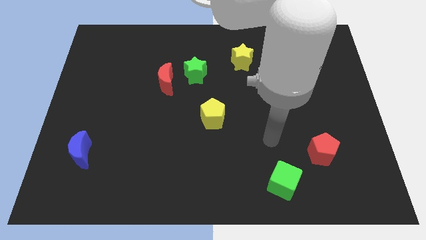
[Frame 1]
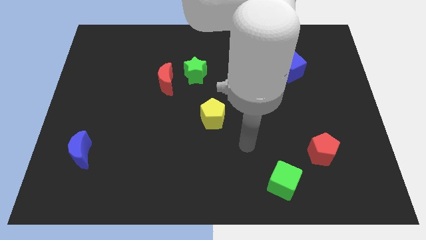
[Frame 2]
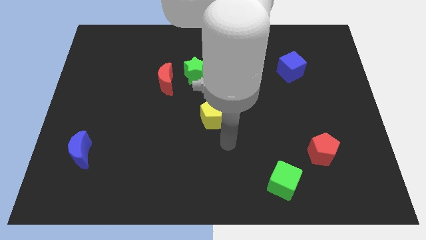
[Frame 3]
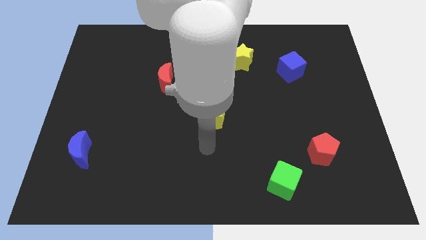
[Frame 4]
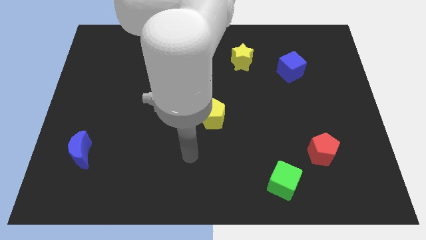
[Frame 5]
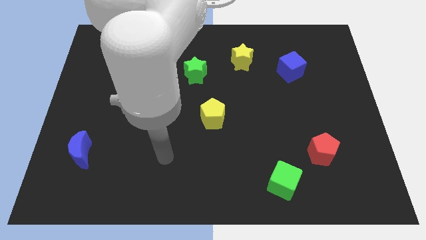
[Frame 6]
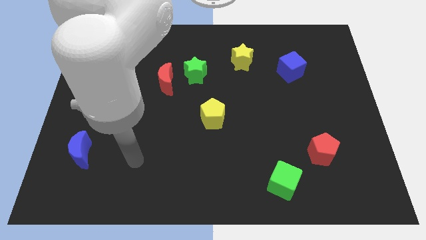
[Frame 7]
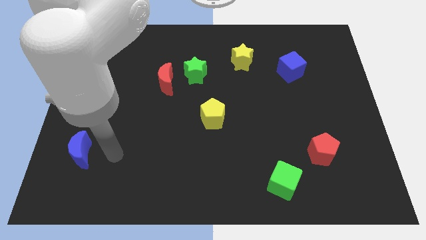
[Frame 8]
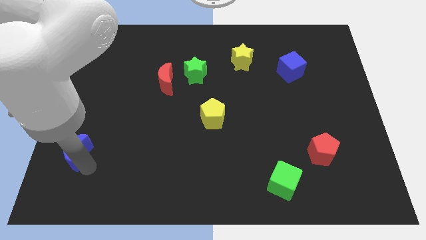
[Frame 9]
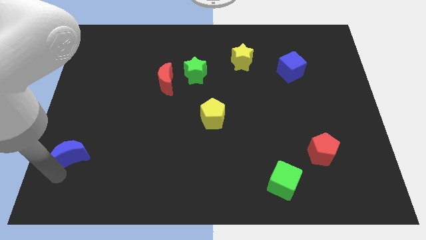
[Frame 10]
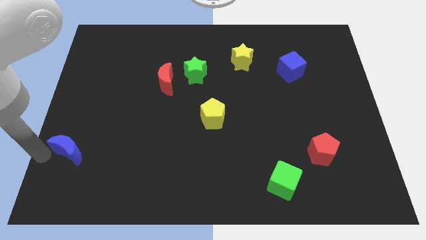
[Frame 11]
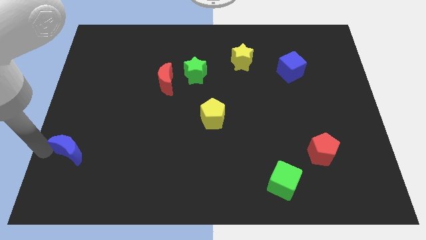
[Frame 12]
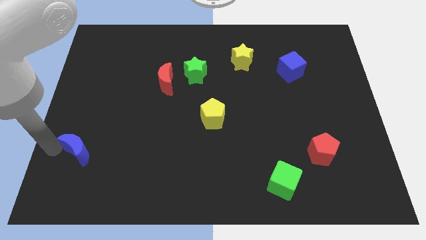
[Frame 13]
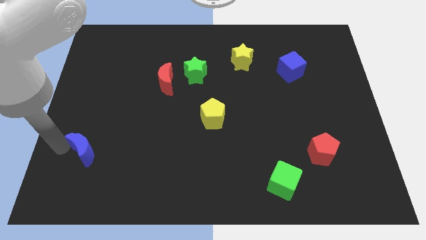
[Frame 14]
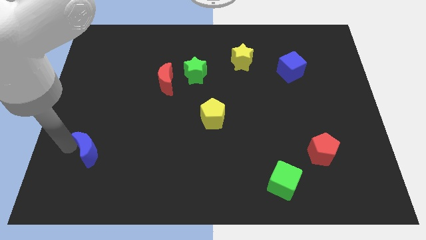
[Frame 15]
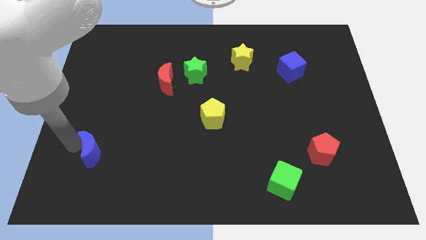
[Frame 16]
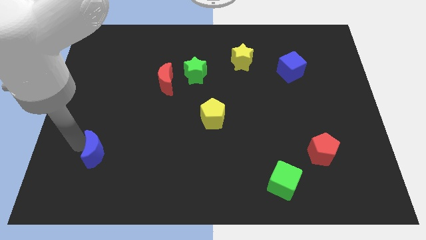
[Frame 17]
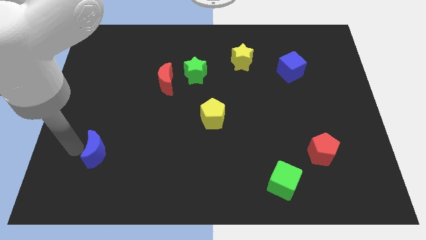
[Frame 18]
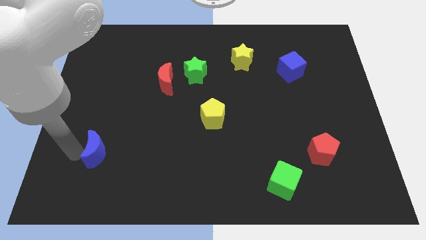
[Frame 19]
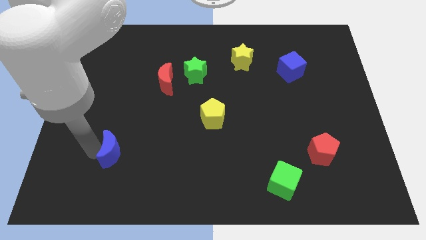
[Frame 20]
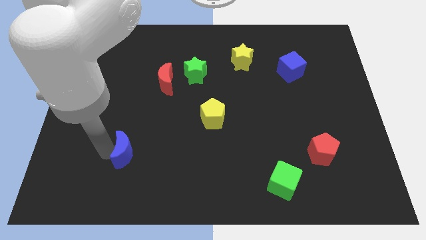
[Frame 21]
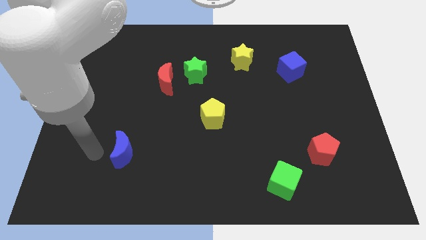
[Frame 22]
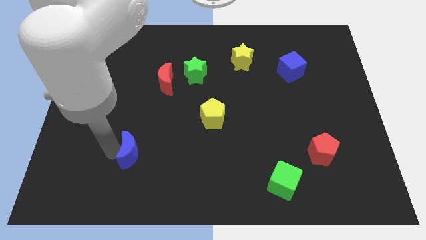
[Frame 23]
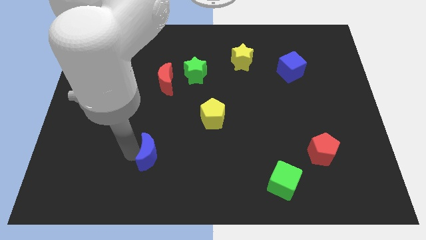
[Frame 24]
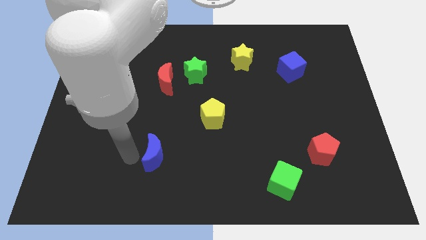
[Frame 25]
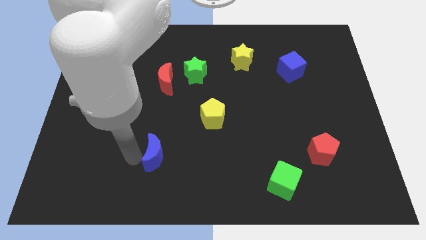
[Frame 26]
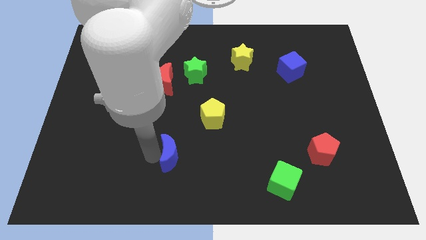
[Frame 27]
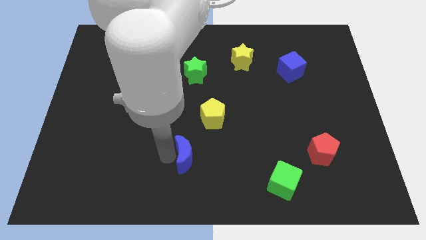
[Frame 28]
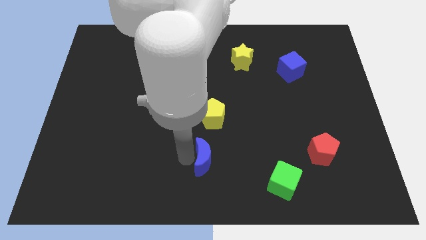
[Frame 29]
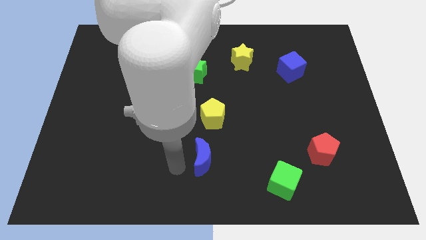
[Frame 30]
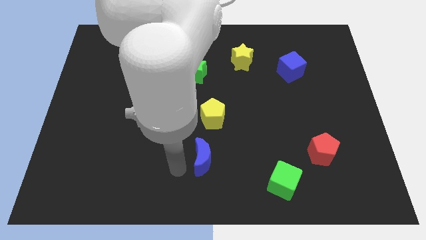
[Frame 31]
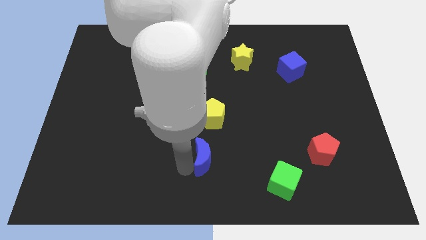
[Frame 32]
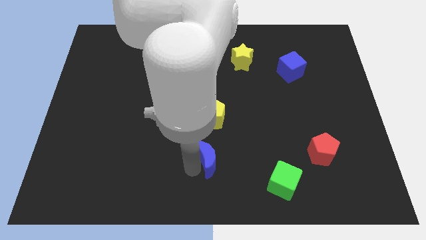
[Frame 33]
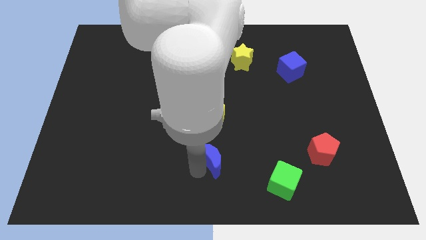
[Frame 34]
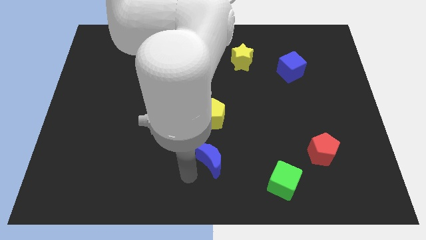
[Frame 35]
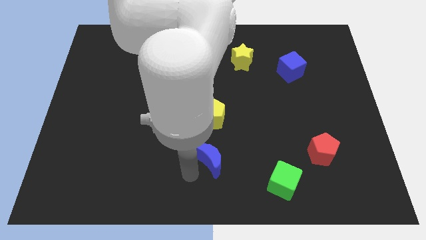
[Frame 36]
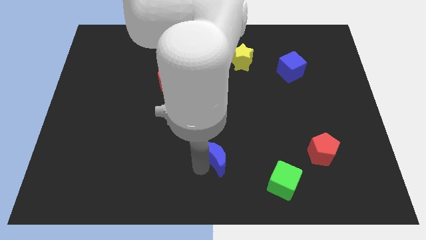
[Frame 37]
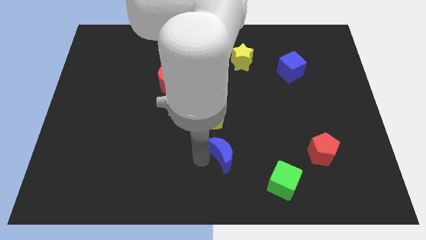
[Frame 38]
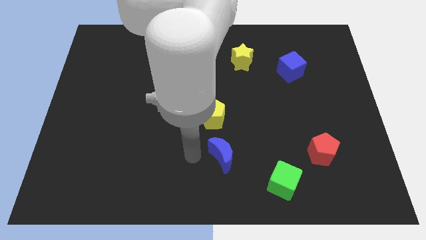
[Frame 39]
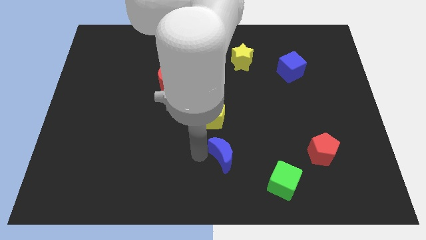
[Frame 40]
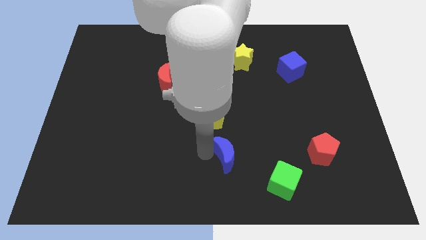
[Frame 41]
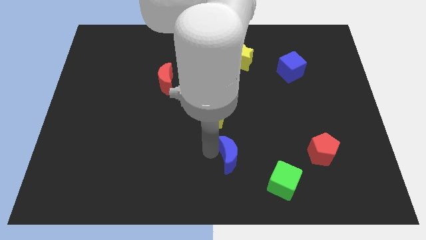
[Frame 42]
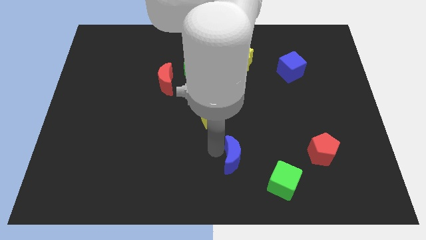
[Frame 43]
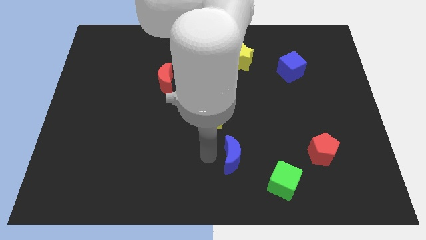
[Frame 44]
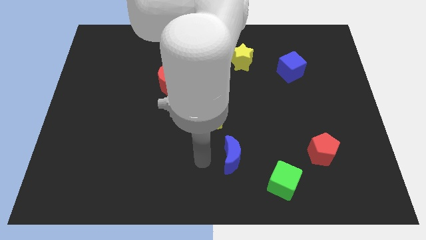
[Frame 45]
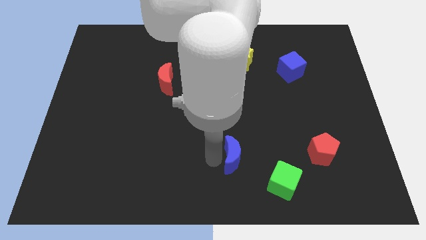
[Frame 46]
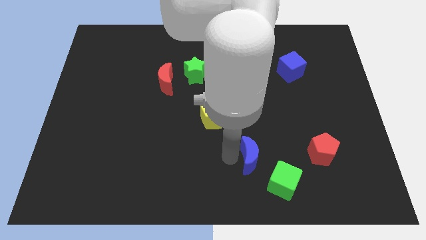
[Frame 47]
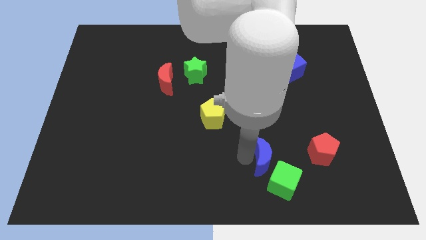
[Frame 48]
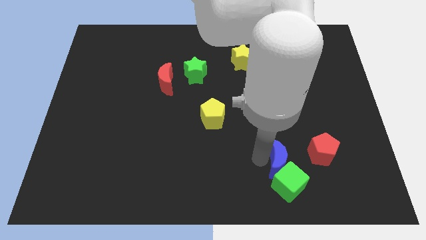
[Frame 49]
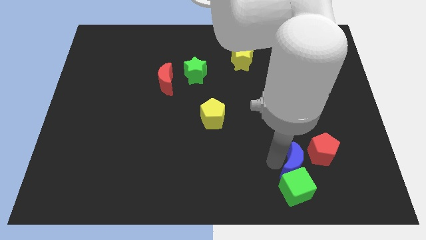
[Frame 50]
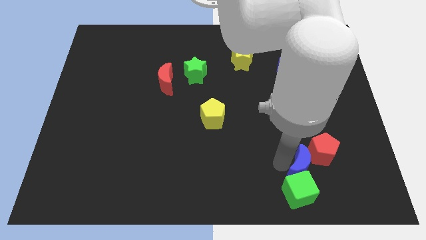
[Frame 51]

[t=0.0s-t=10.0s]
move the blue moon next to the red pentagon

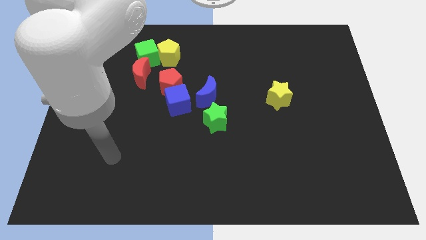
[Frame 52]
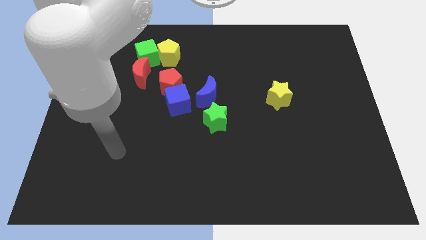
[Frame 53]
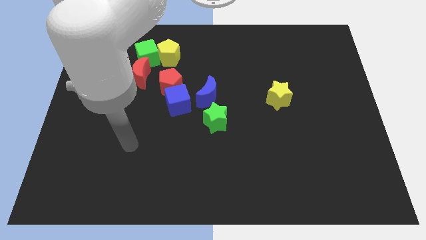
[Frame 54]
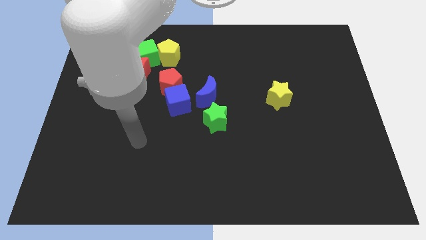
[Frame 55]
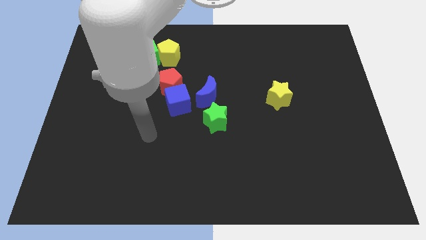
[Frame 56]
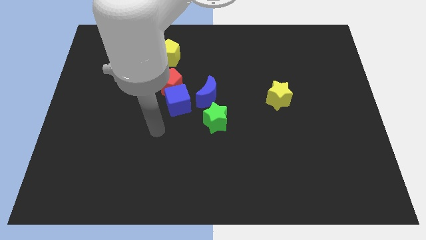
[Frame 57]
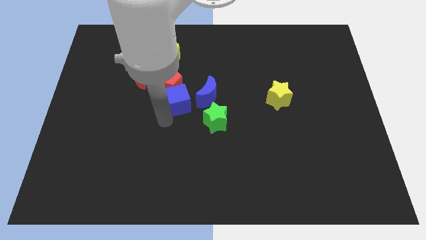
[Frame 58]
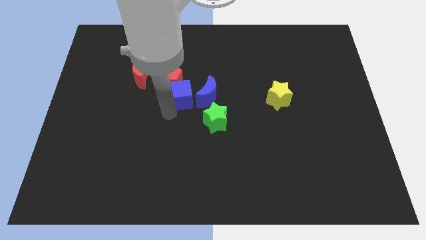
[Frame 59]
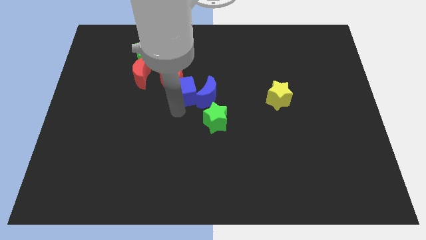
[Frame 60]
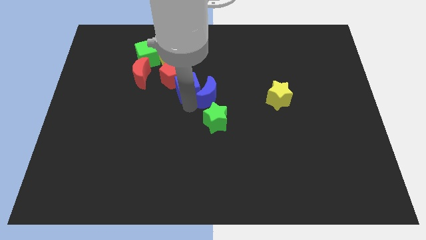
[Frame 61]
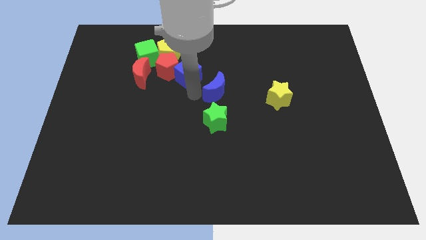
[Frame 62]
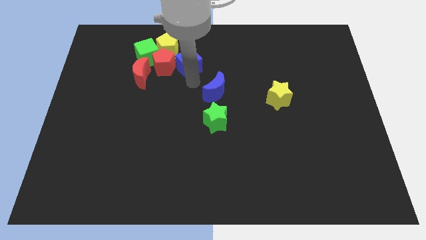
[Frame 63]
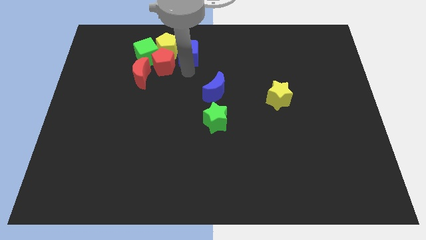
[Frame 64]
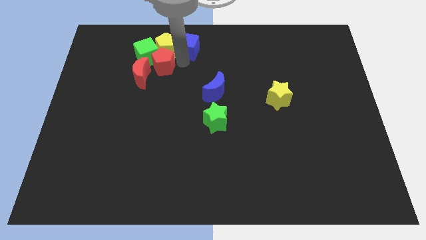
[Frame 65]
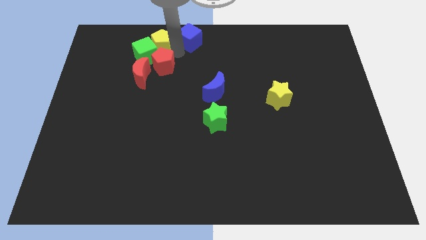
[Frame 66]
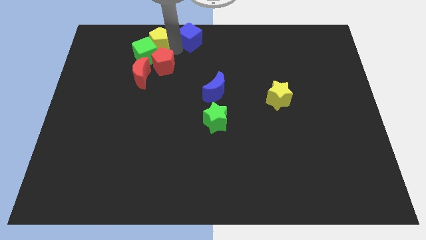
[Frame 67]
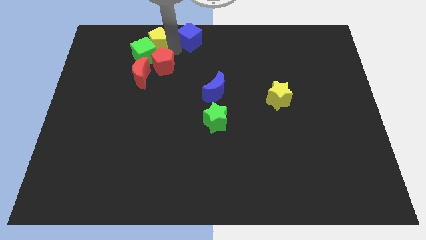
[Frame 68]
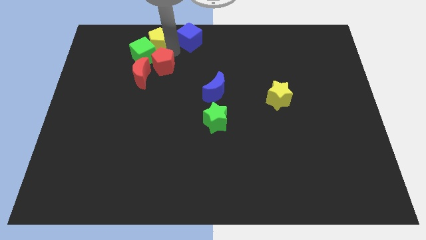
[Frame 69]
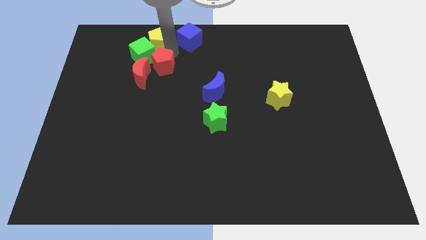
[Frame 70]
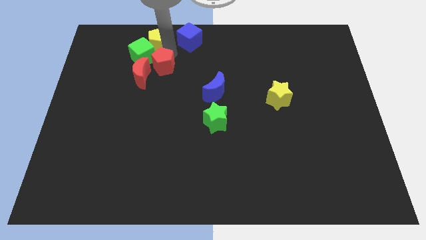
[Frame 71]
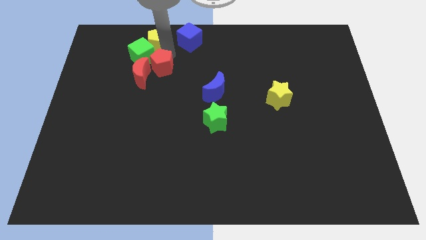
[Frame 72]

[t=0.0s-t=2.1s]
move the red pentagon towards the red moon
